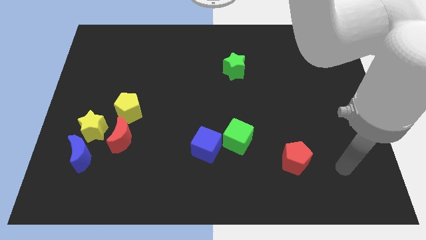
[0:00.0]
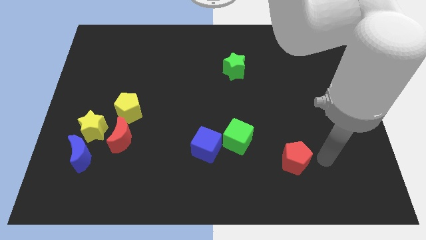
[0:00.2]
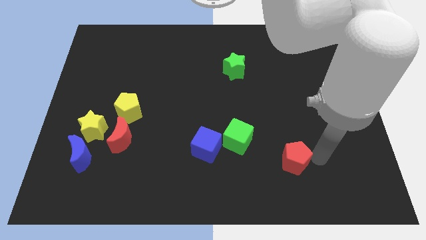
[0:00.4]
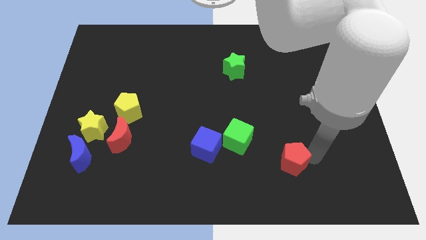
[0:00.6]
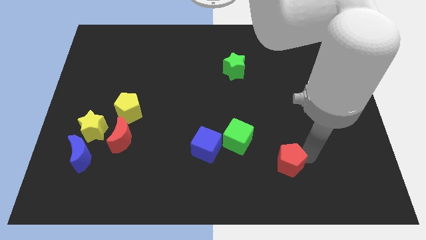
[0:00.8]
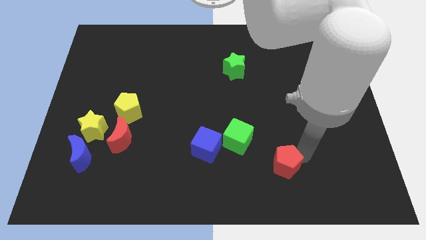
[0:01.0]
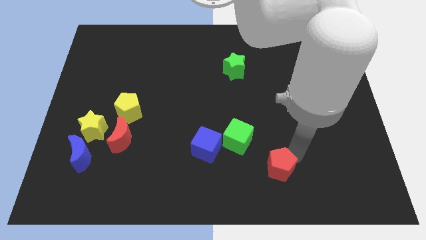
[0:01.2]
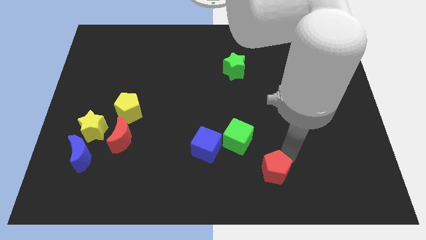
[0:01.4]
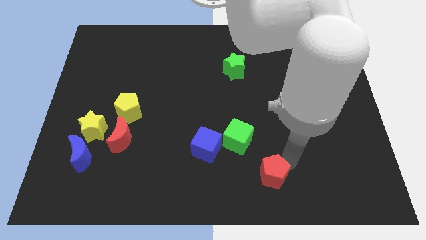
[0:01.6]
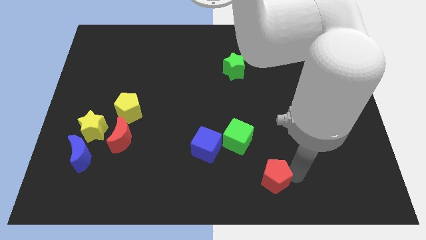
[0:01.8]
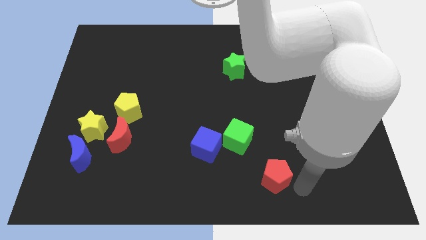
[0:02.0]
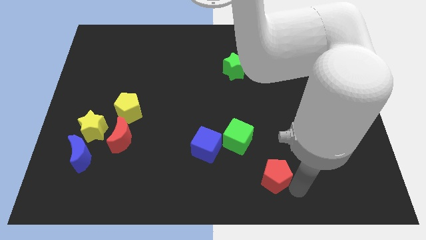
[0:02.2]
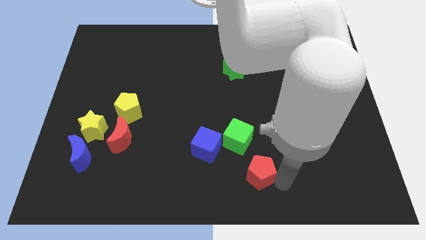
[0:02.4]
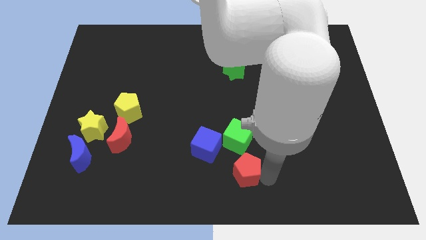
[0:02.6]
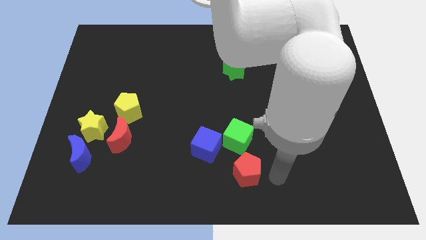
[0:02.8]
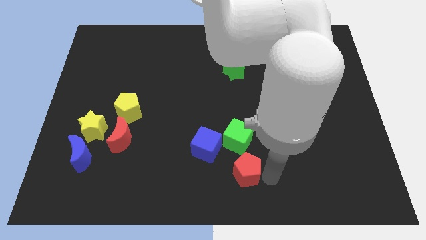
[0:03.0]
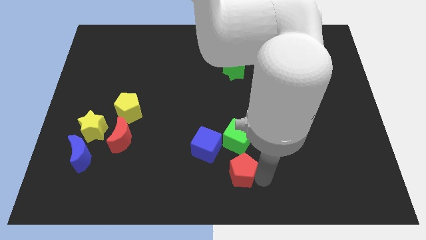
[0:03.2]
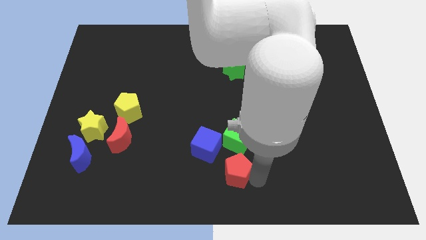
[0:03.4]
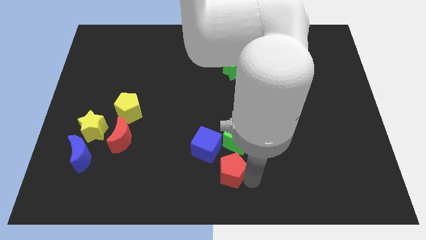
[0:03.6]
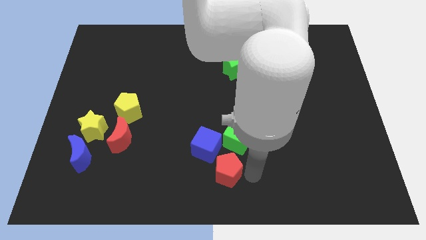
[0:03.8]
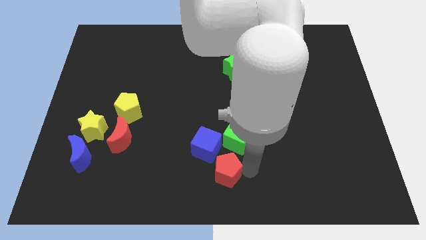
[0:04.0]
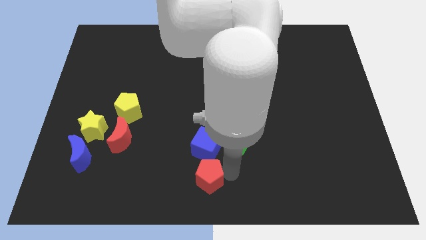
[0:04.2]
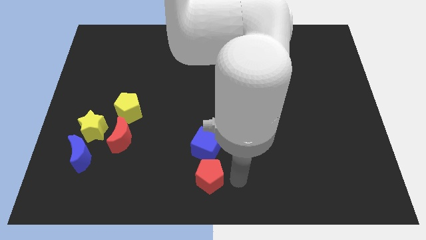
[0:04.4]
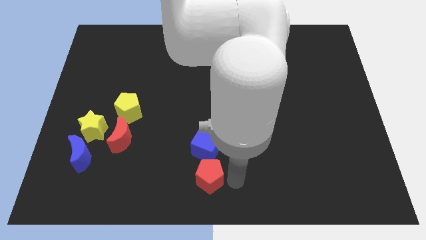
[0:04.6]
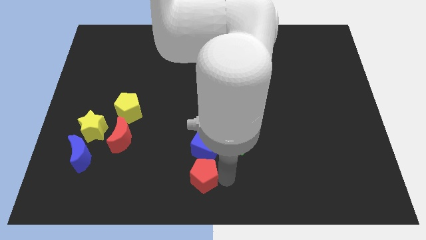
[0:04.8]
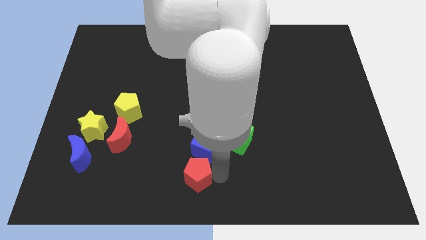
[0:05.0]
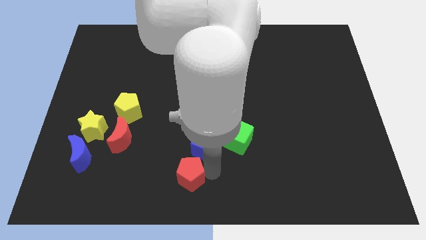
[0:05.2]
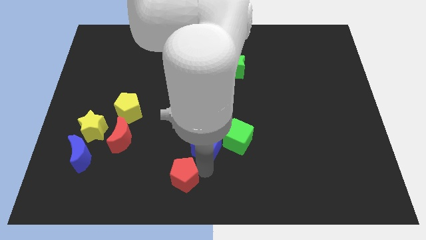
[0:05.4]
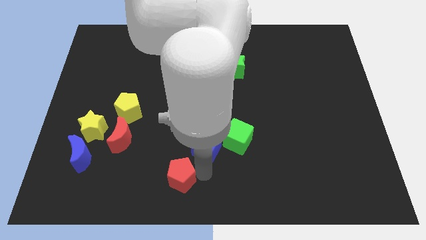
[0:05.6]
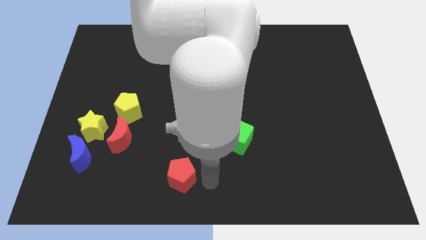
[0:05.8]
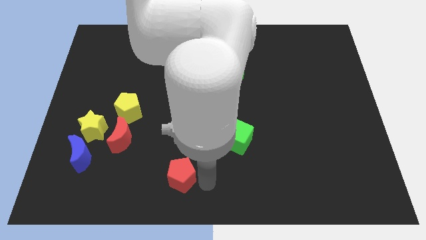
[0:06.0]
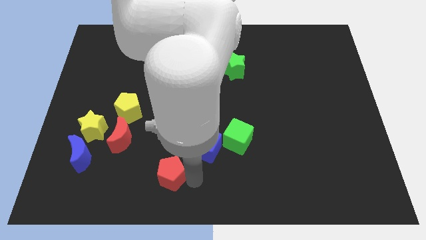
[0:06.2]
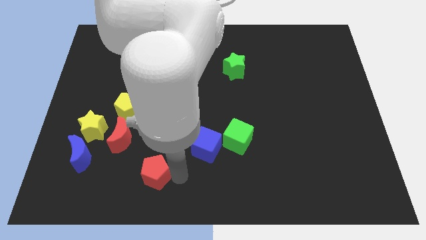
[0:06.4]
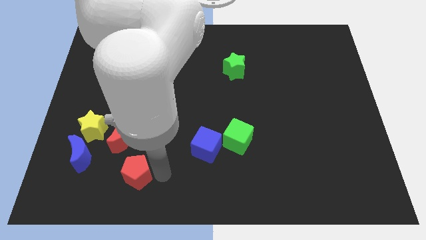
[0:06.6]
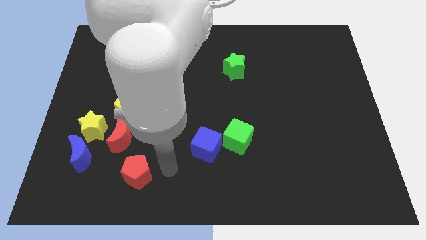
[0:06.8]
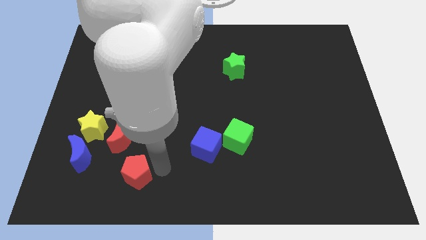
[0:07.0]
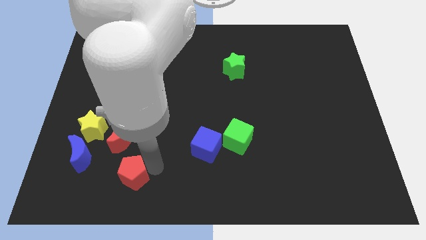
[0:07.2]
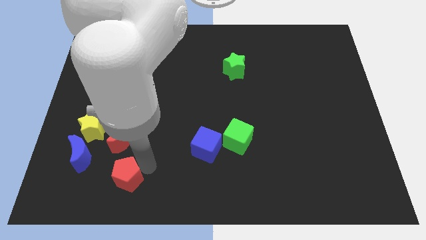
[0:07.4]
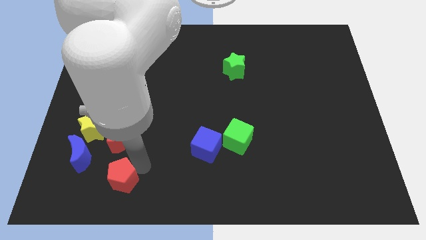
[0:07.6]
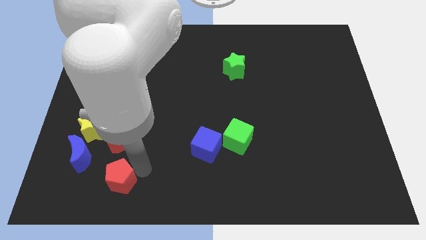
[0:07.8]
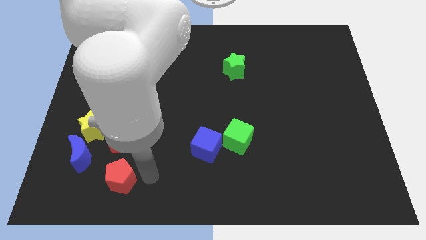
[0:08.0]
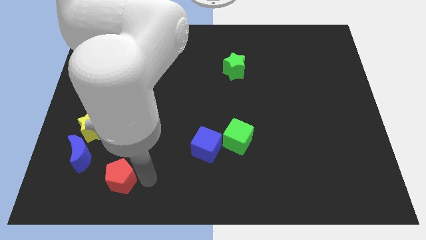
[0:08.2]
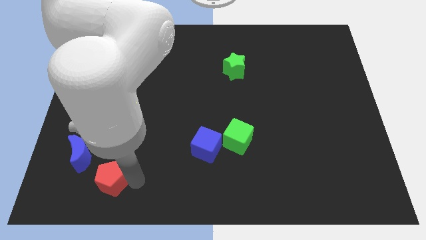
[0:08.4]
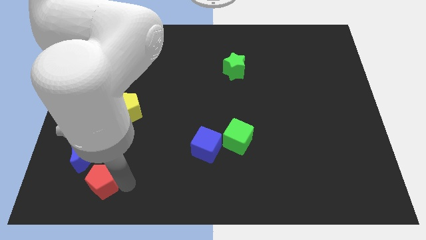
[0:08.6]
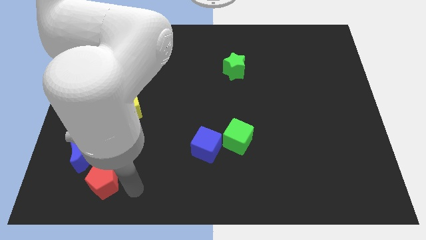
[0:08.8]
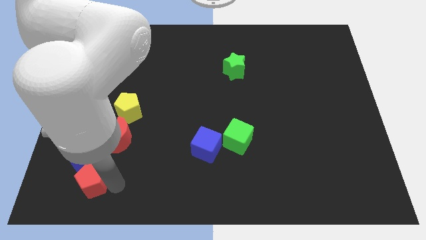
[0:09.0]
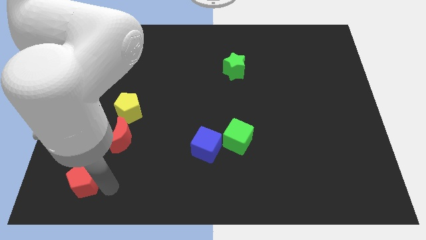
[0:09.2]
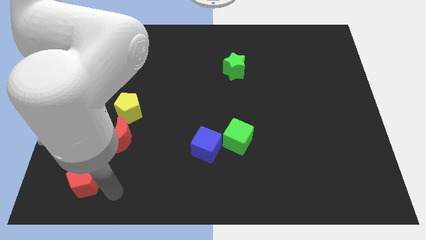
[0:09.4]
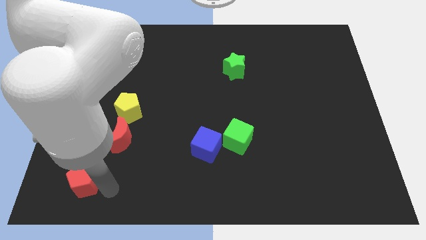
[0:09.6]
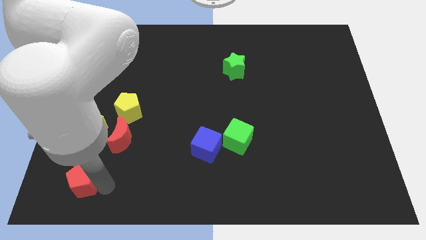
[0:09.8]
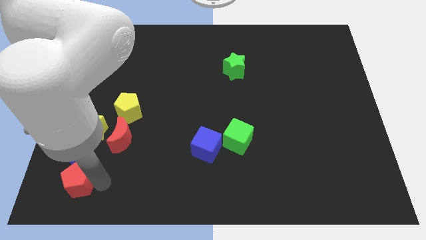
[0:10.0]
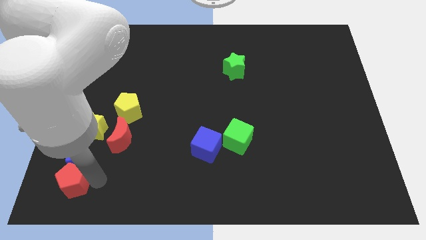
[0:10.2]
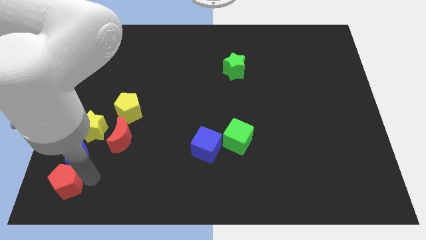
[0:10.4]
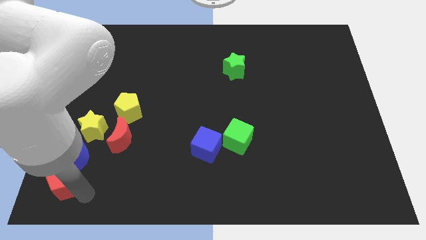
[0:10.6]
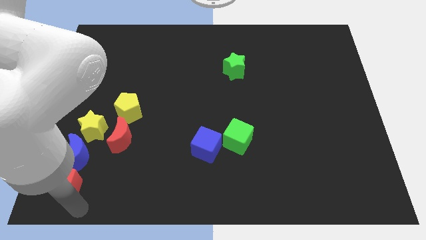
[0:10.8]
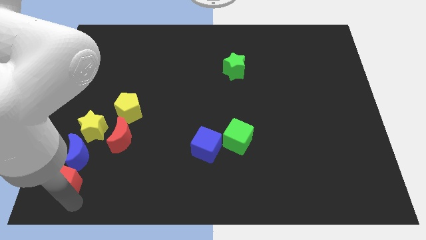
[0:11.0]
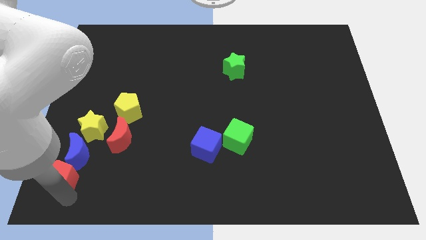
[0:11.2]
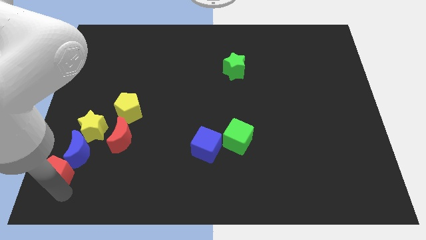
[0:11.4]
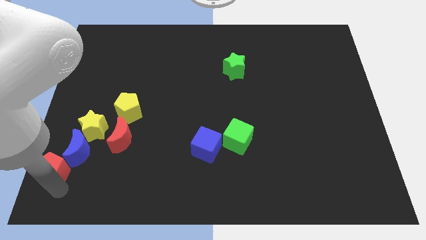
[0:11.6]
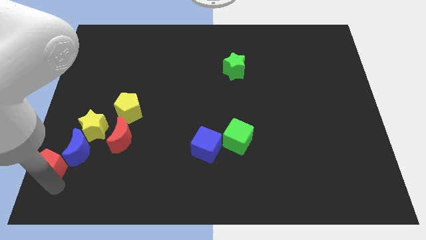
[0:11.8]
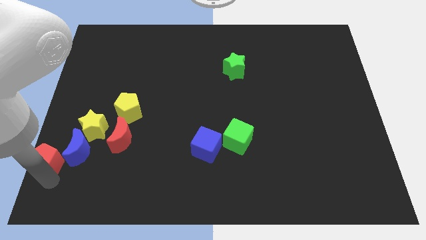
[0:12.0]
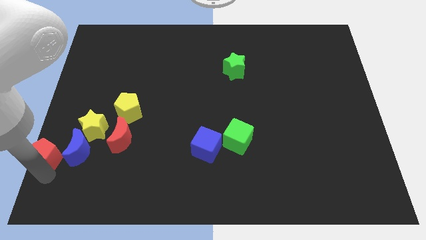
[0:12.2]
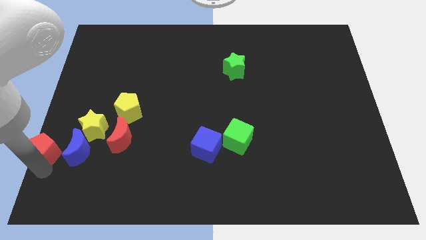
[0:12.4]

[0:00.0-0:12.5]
move the red pentagon to the center left
